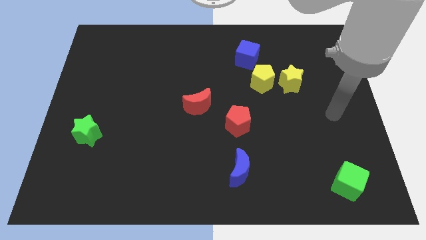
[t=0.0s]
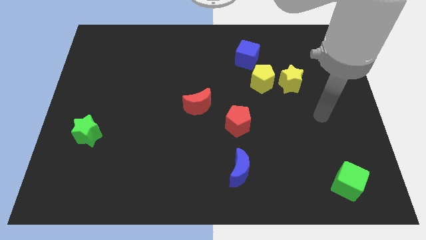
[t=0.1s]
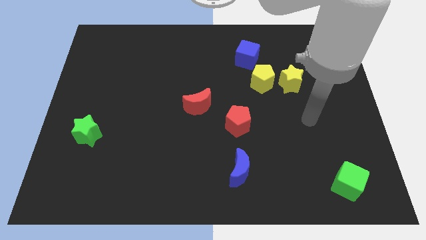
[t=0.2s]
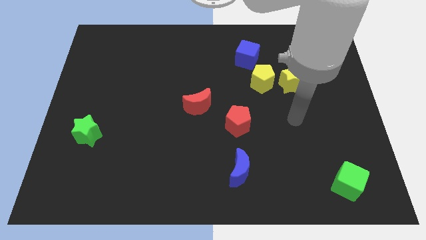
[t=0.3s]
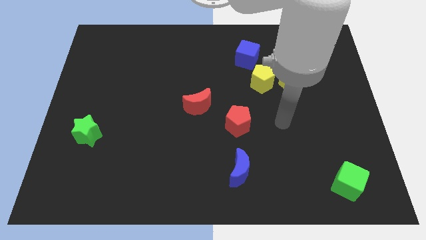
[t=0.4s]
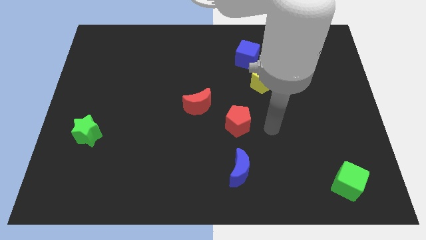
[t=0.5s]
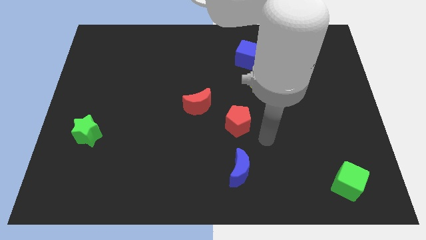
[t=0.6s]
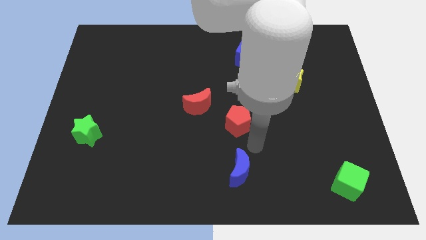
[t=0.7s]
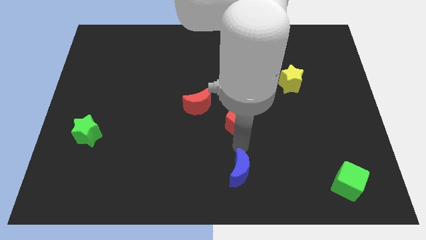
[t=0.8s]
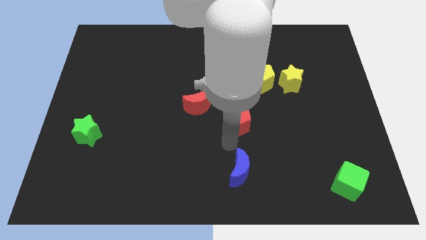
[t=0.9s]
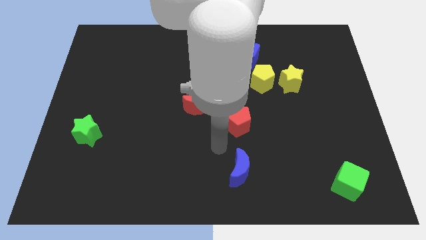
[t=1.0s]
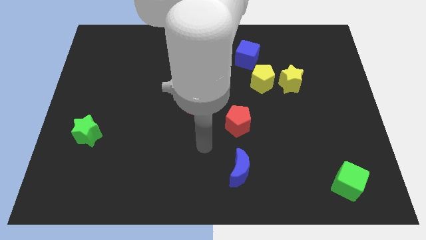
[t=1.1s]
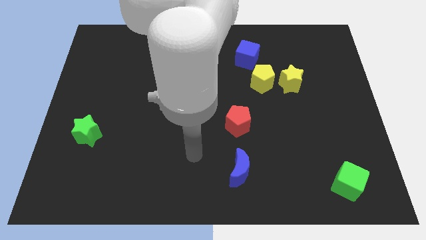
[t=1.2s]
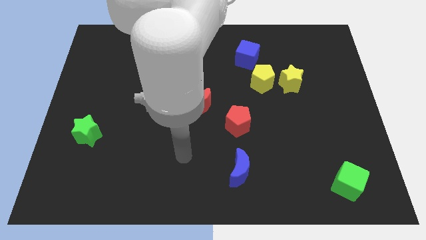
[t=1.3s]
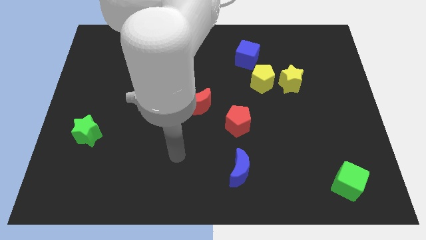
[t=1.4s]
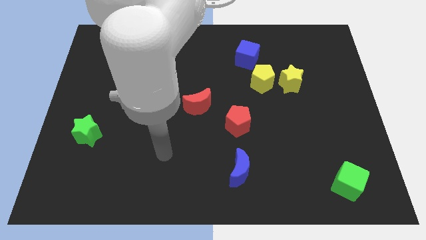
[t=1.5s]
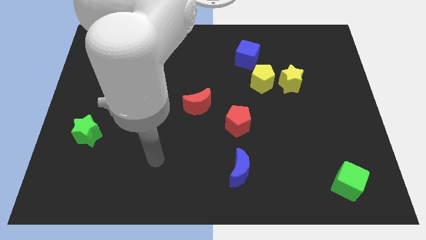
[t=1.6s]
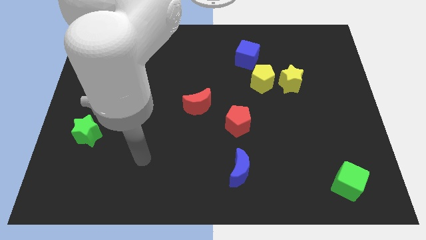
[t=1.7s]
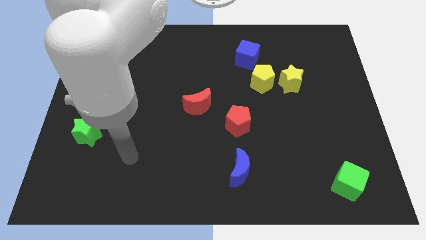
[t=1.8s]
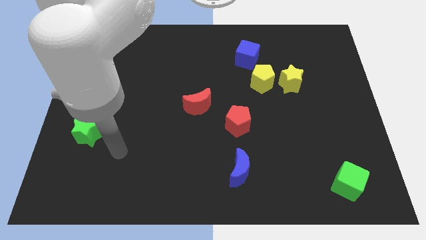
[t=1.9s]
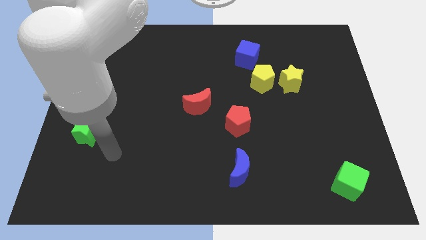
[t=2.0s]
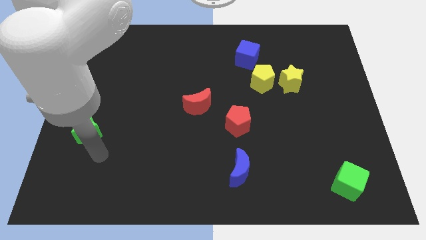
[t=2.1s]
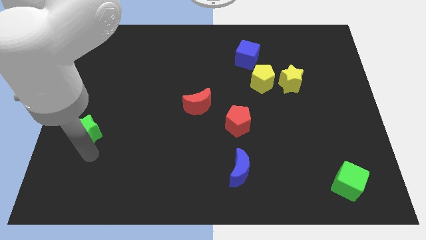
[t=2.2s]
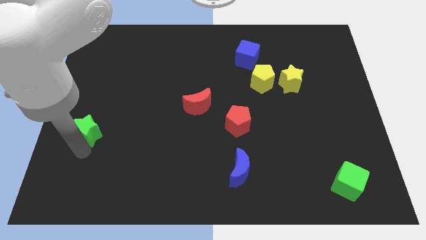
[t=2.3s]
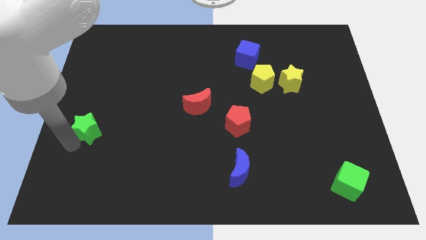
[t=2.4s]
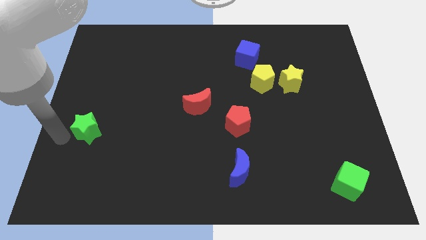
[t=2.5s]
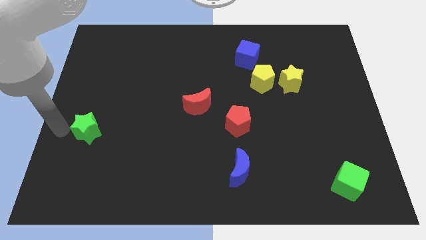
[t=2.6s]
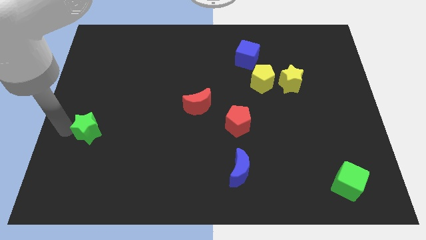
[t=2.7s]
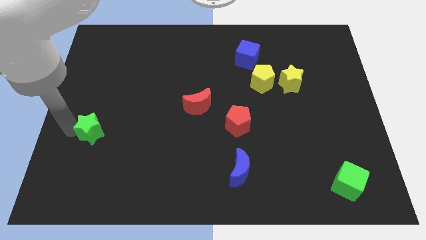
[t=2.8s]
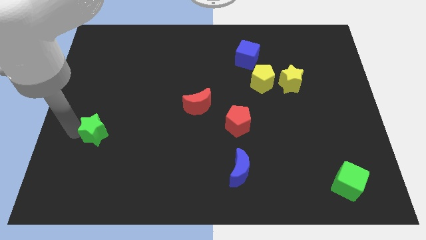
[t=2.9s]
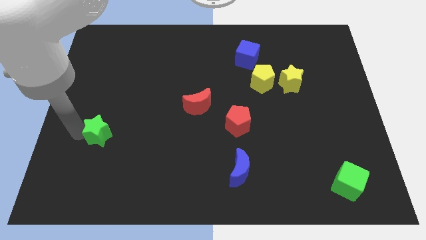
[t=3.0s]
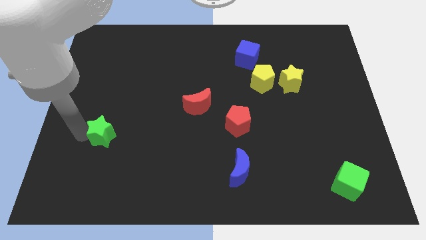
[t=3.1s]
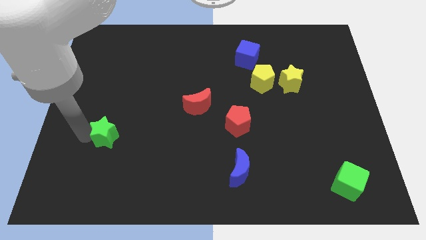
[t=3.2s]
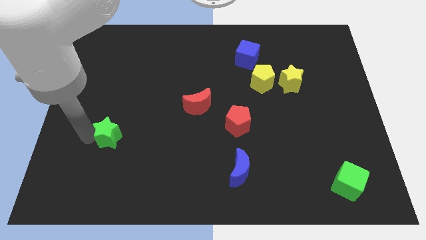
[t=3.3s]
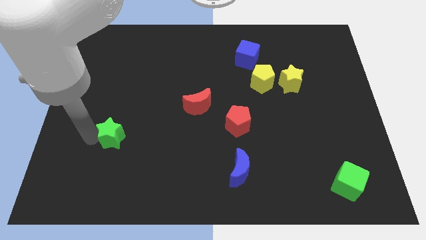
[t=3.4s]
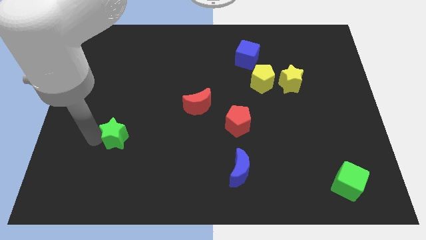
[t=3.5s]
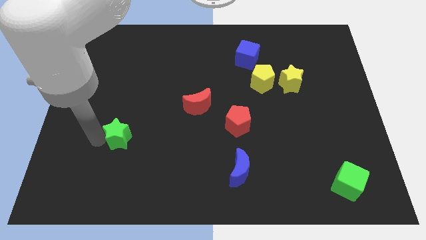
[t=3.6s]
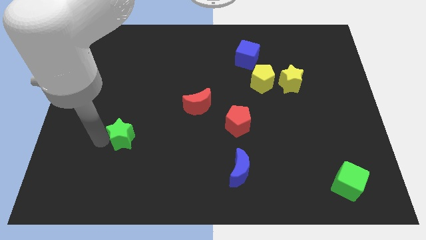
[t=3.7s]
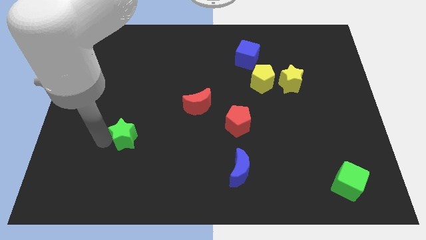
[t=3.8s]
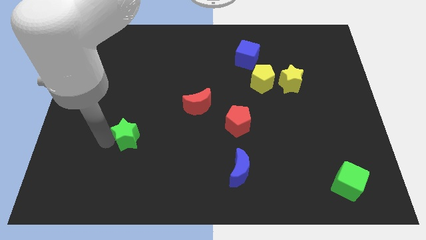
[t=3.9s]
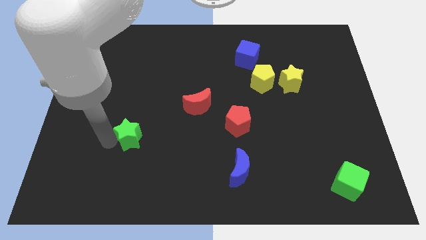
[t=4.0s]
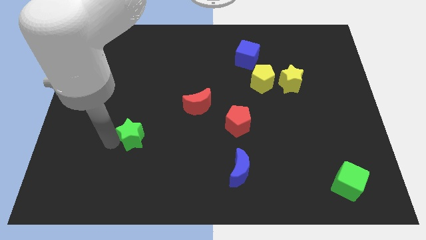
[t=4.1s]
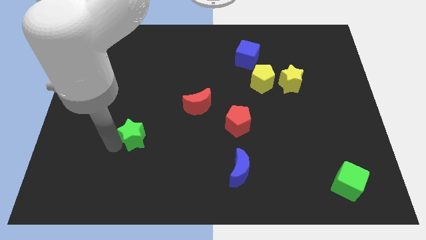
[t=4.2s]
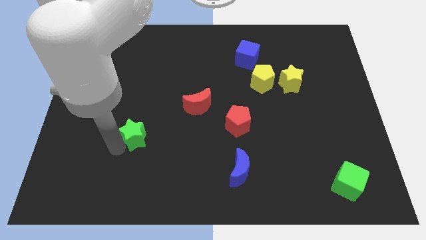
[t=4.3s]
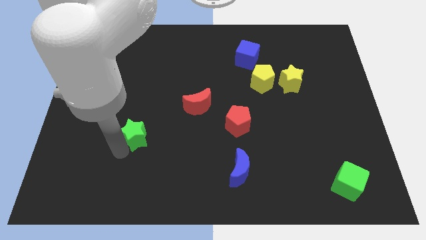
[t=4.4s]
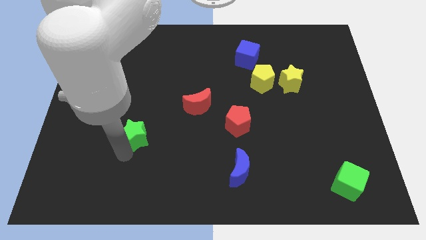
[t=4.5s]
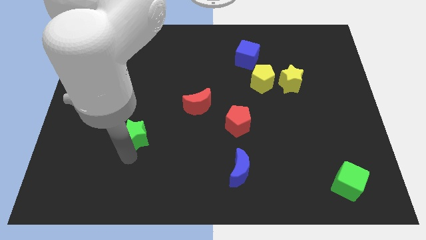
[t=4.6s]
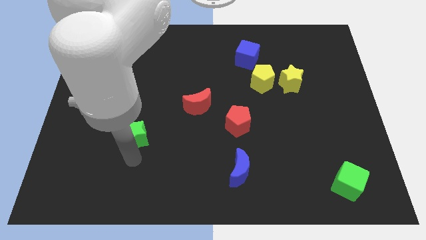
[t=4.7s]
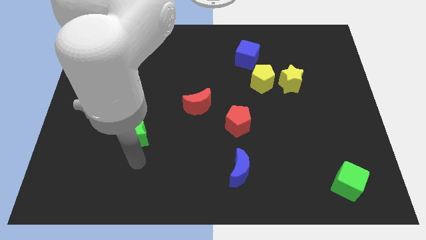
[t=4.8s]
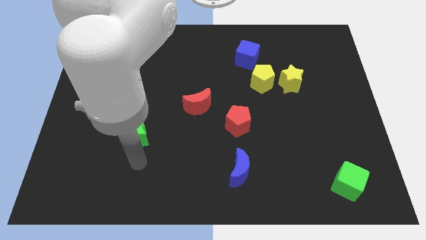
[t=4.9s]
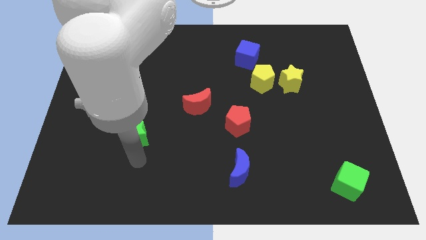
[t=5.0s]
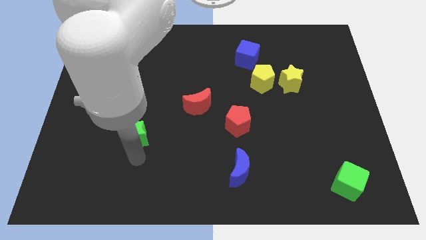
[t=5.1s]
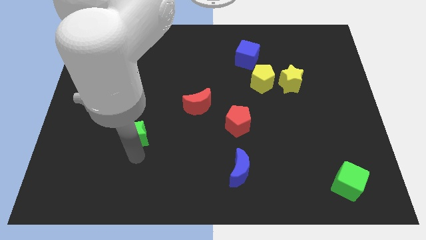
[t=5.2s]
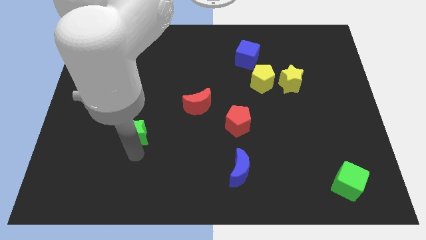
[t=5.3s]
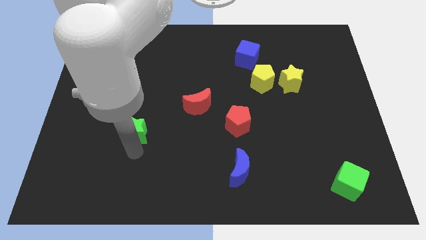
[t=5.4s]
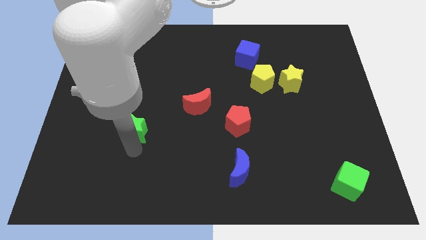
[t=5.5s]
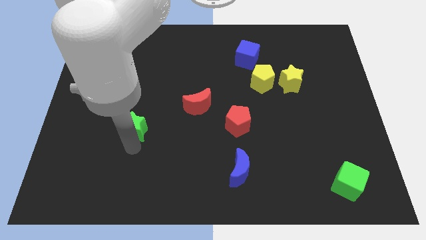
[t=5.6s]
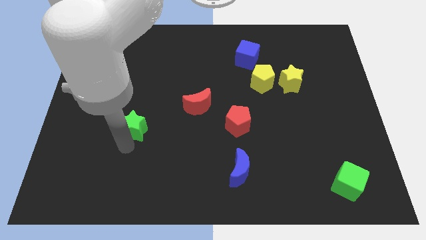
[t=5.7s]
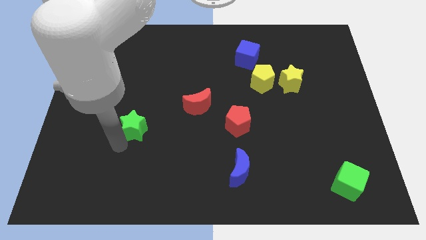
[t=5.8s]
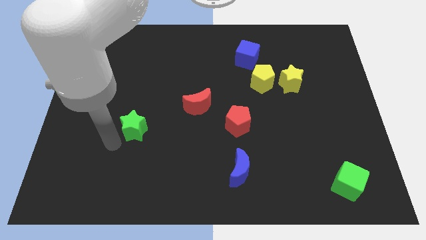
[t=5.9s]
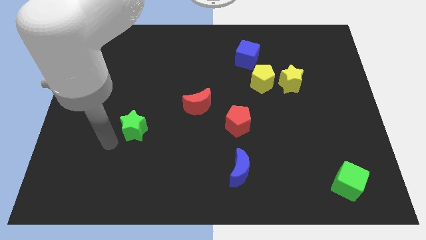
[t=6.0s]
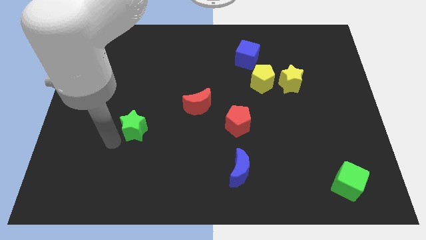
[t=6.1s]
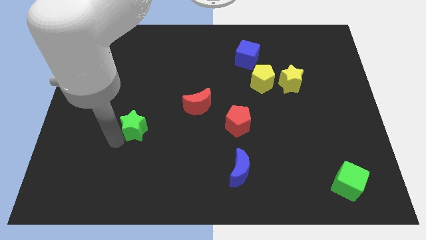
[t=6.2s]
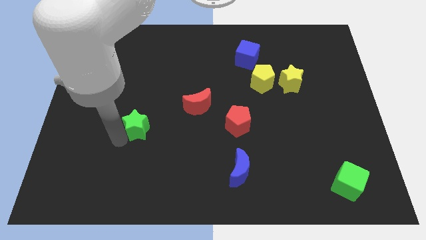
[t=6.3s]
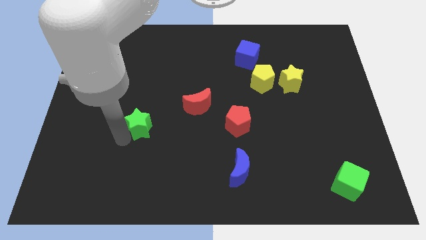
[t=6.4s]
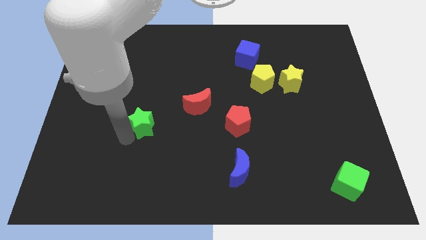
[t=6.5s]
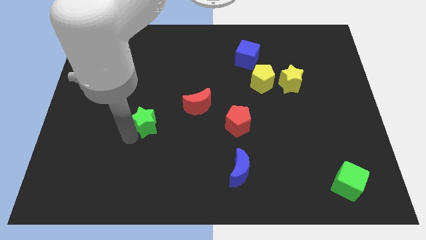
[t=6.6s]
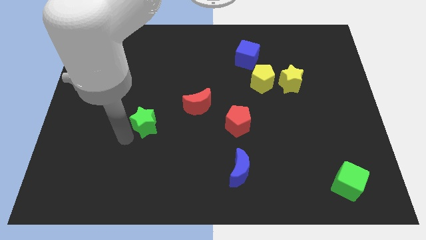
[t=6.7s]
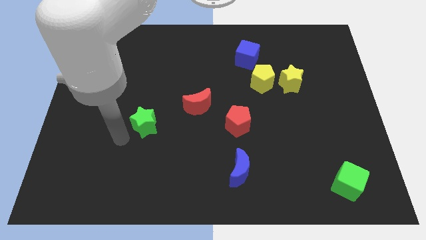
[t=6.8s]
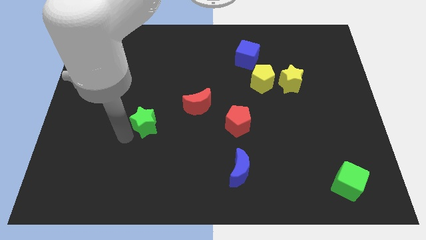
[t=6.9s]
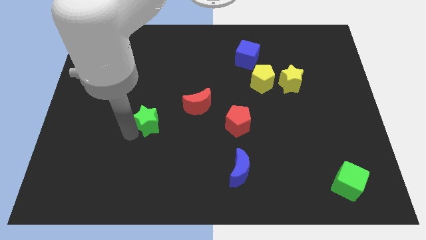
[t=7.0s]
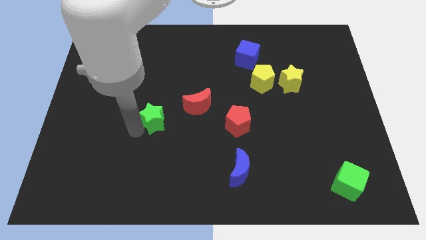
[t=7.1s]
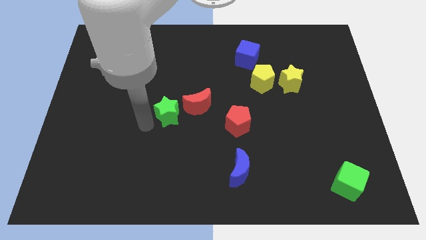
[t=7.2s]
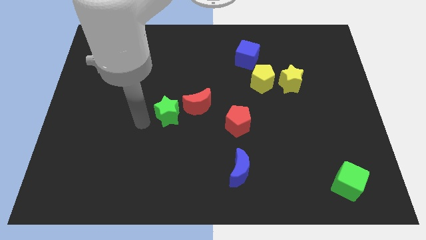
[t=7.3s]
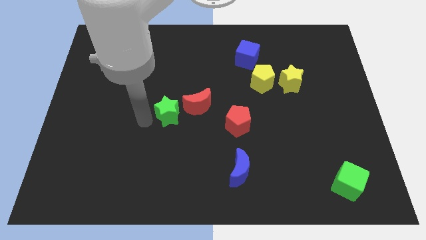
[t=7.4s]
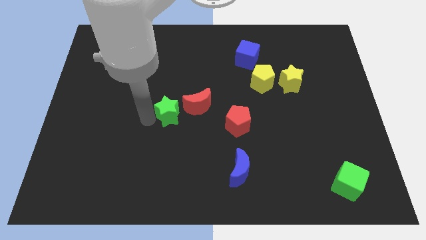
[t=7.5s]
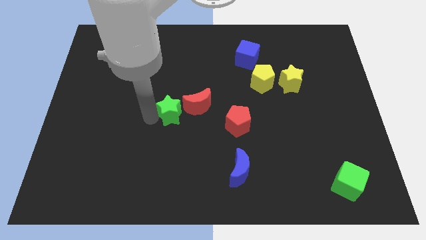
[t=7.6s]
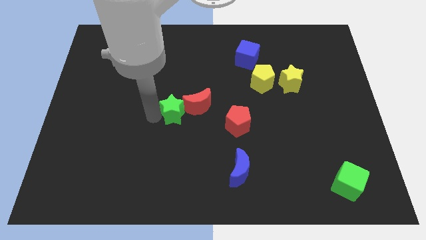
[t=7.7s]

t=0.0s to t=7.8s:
put the green star close to the red moon
